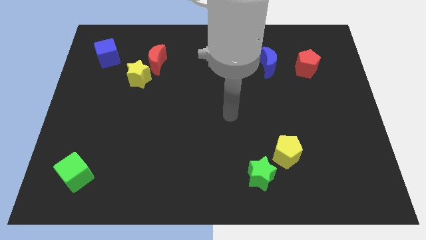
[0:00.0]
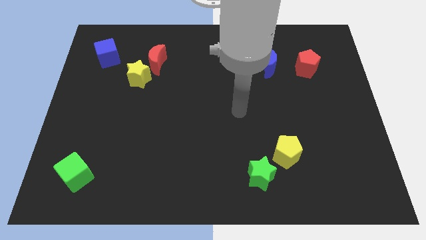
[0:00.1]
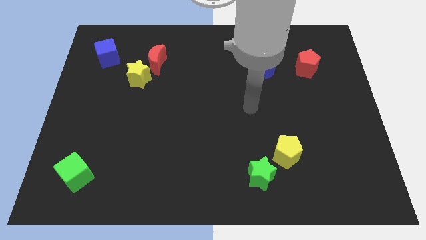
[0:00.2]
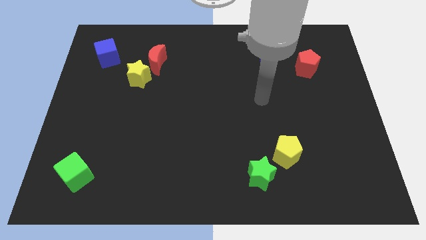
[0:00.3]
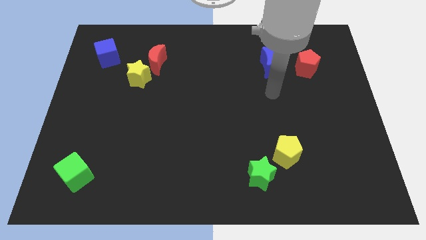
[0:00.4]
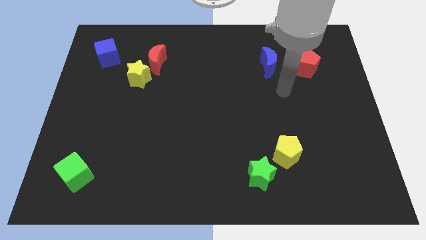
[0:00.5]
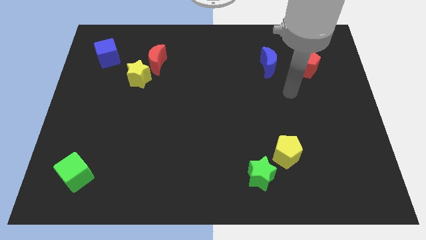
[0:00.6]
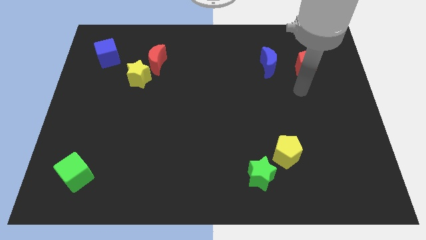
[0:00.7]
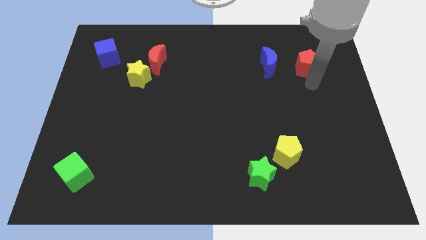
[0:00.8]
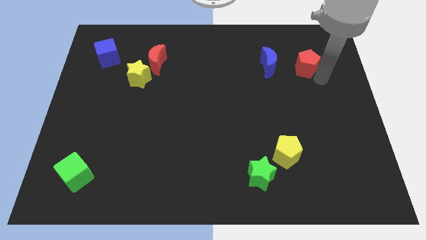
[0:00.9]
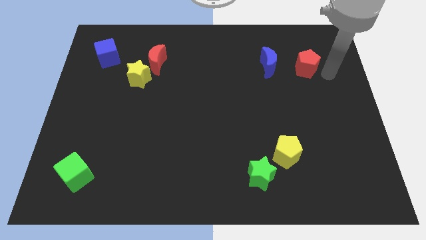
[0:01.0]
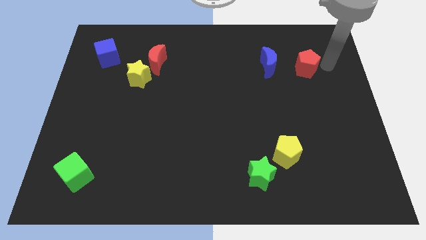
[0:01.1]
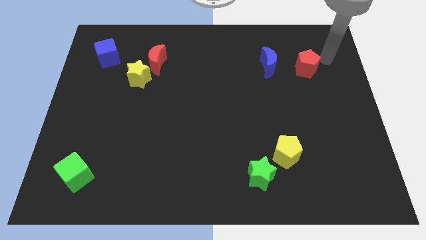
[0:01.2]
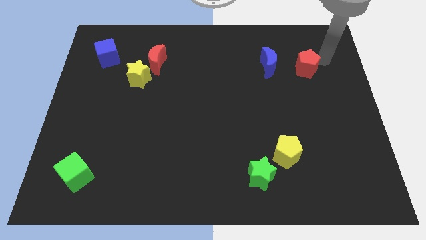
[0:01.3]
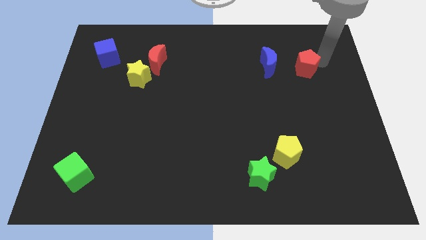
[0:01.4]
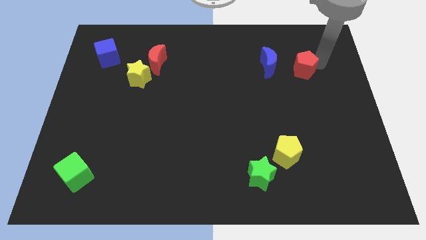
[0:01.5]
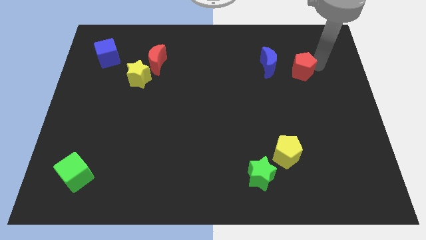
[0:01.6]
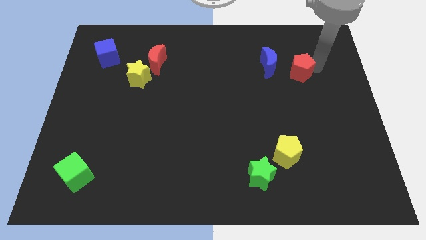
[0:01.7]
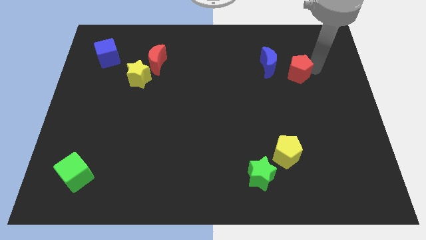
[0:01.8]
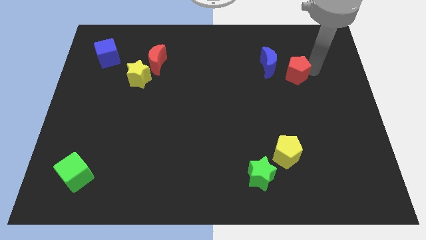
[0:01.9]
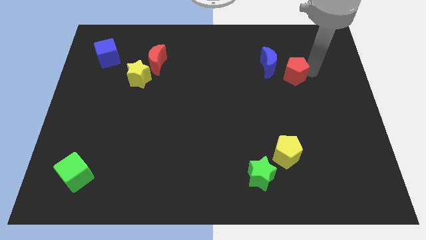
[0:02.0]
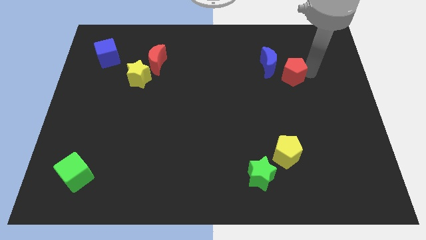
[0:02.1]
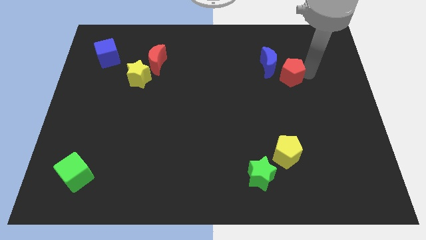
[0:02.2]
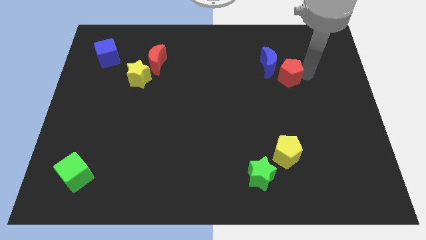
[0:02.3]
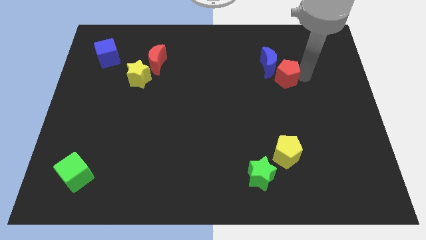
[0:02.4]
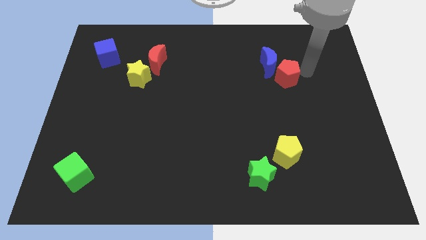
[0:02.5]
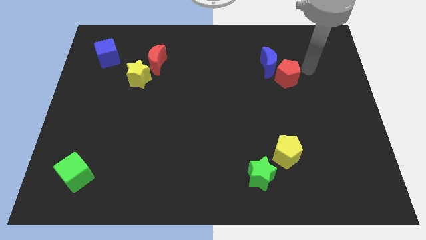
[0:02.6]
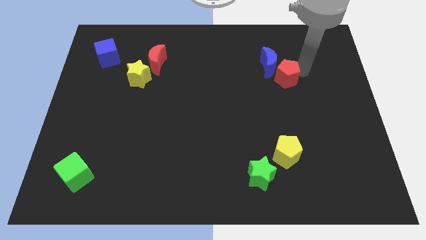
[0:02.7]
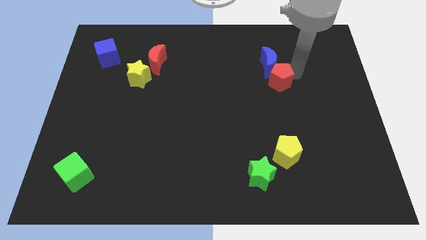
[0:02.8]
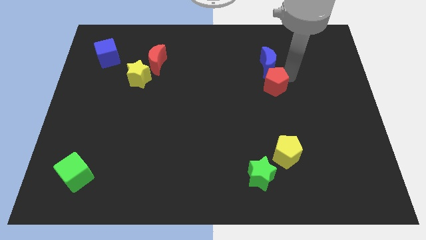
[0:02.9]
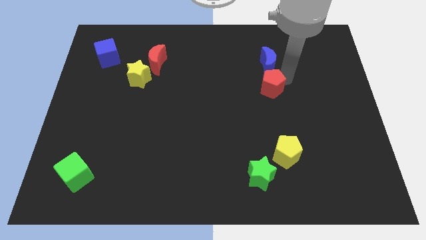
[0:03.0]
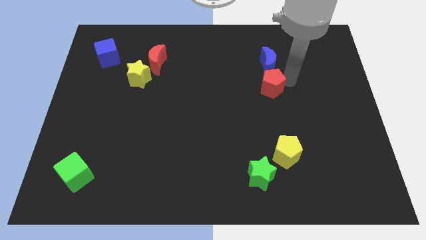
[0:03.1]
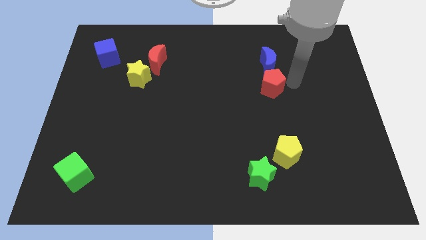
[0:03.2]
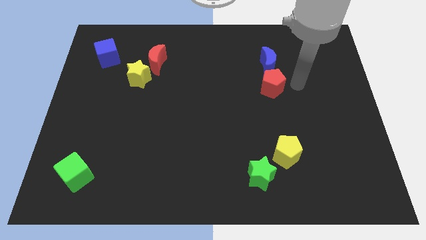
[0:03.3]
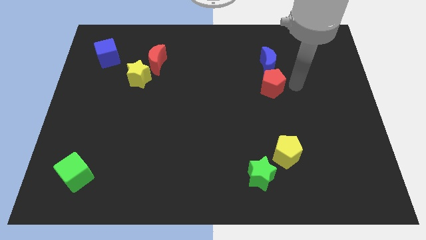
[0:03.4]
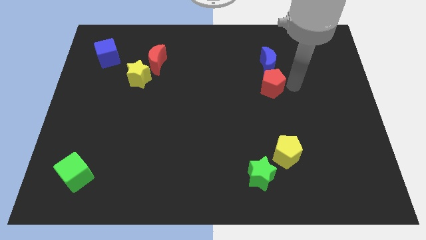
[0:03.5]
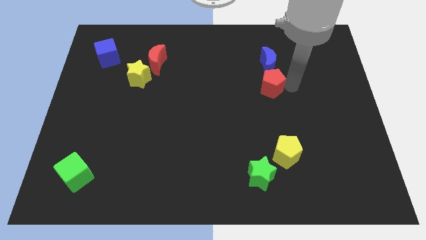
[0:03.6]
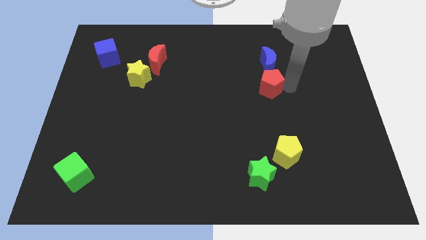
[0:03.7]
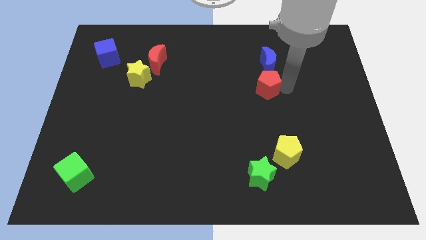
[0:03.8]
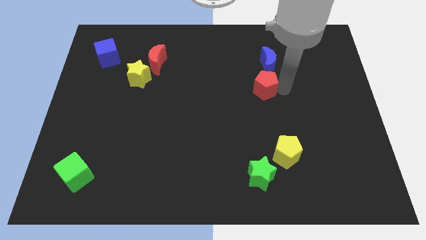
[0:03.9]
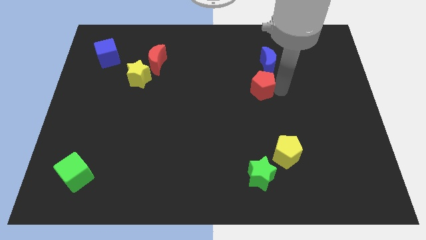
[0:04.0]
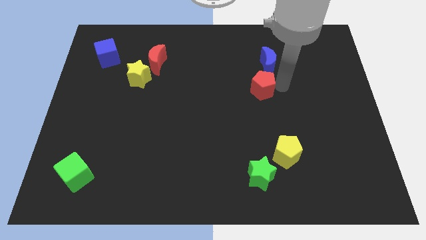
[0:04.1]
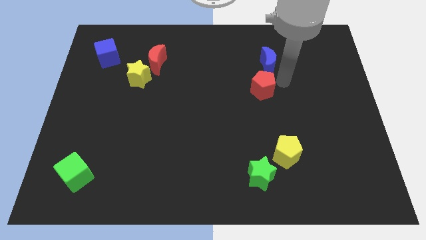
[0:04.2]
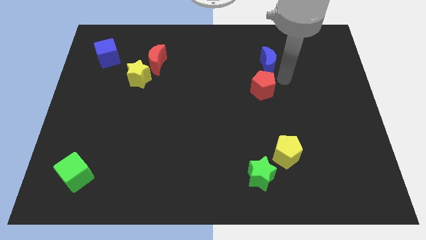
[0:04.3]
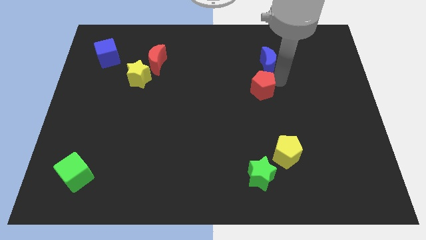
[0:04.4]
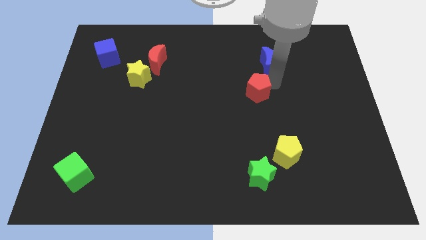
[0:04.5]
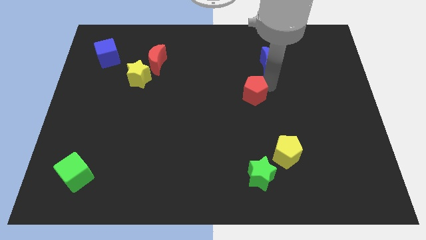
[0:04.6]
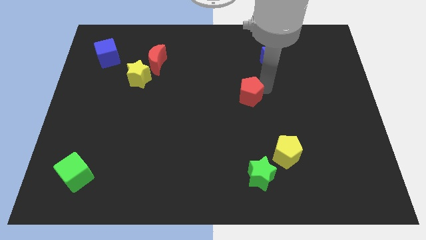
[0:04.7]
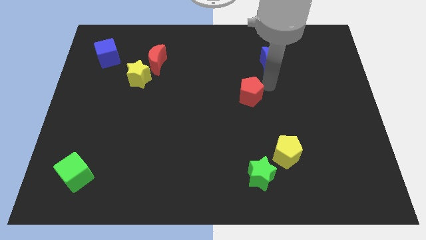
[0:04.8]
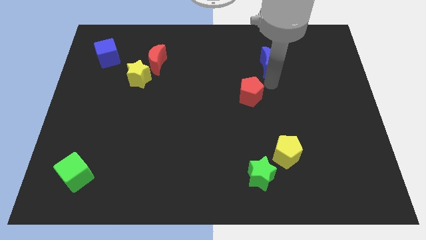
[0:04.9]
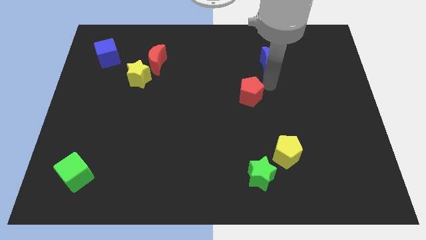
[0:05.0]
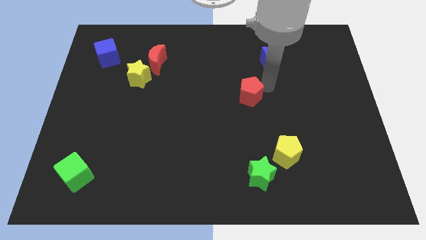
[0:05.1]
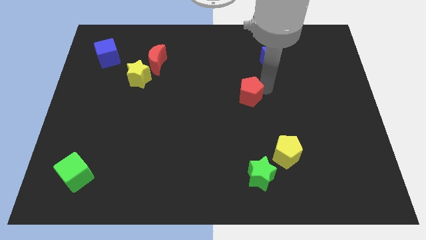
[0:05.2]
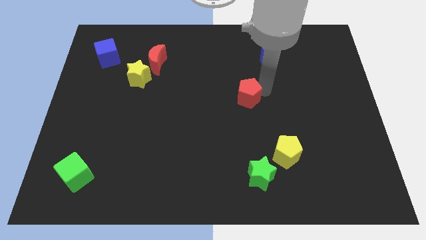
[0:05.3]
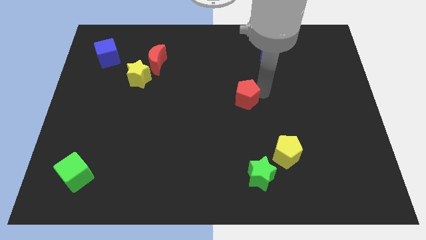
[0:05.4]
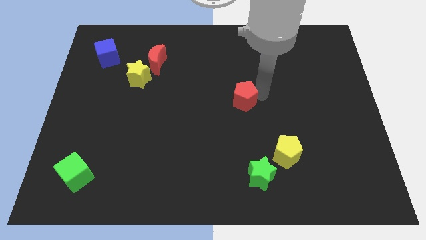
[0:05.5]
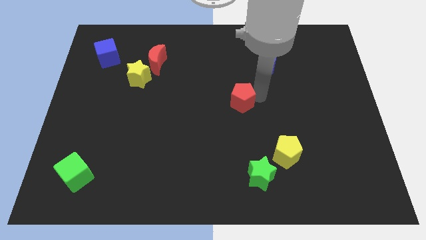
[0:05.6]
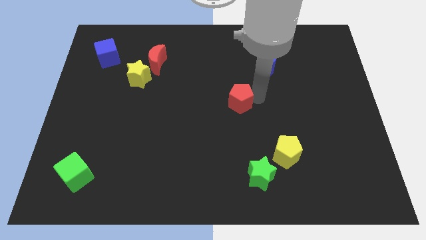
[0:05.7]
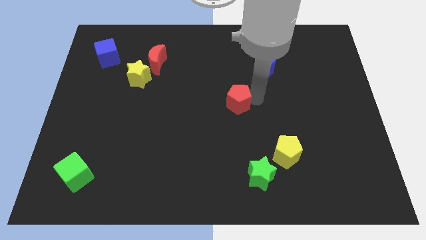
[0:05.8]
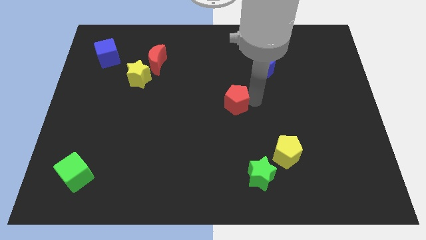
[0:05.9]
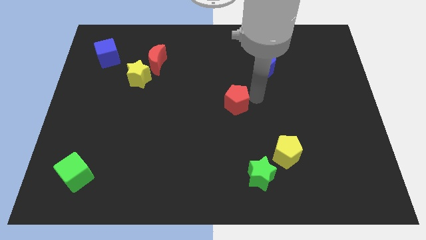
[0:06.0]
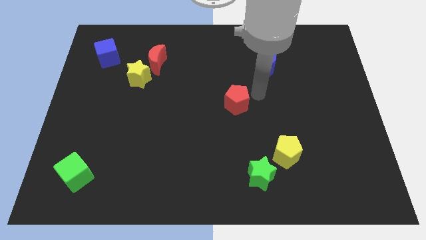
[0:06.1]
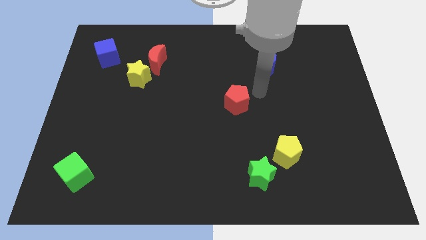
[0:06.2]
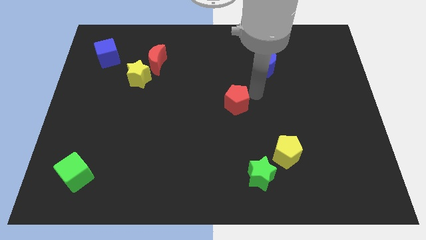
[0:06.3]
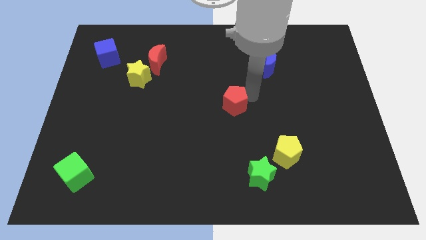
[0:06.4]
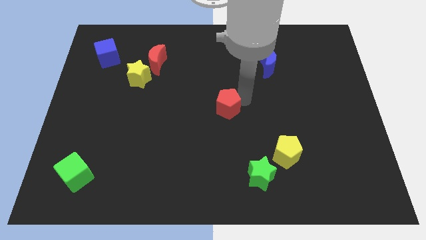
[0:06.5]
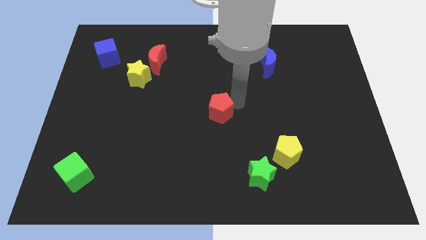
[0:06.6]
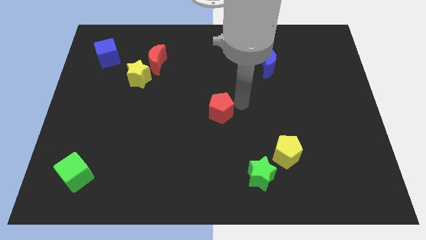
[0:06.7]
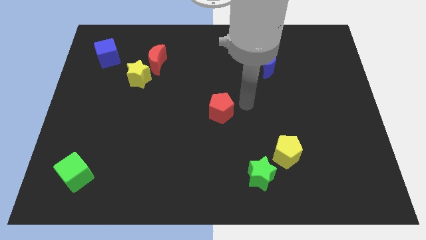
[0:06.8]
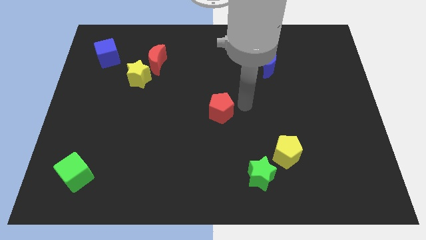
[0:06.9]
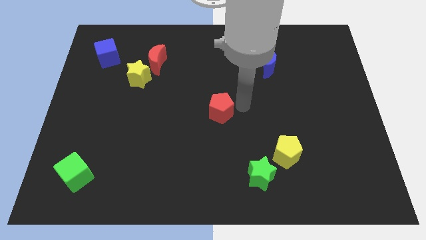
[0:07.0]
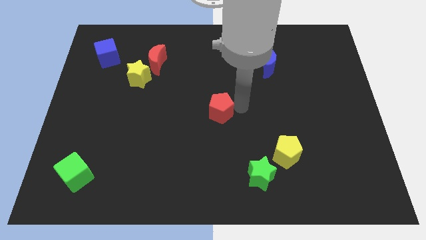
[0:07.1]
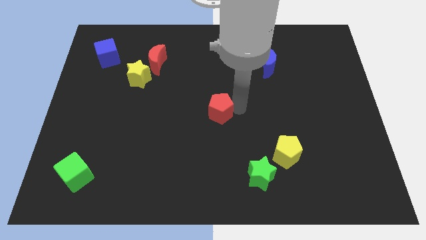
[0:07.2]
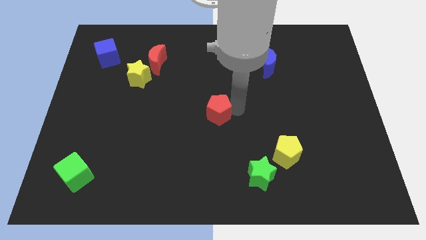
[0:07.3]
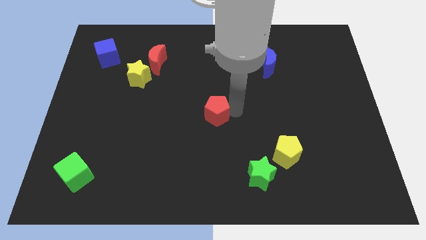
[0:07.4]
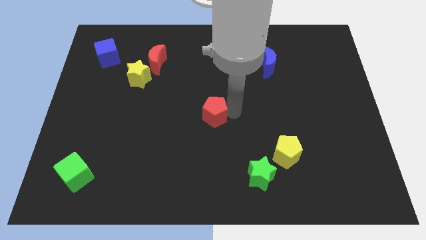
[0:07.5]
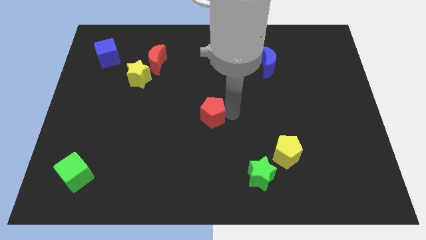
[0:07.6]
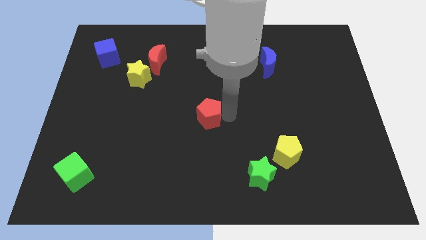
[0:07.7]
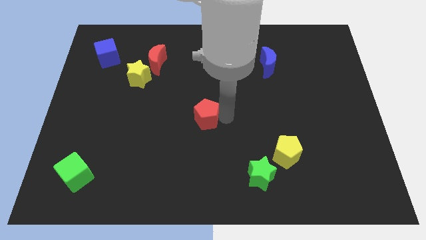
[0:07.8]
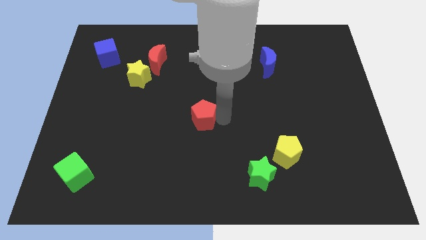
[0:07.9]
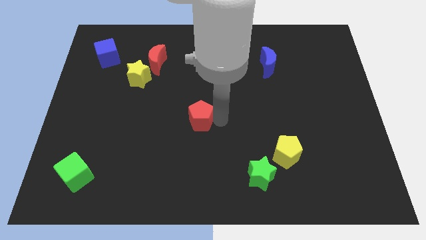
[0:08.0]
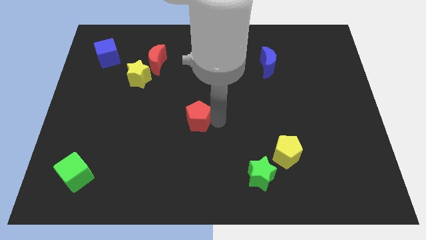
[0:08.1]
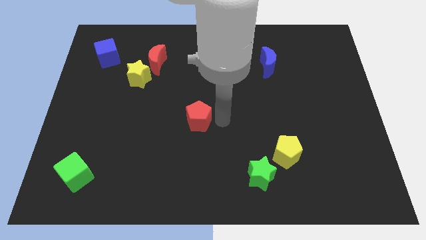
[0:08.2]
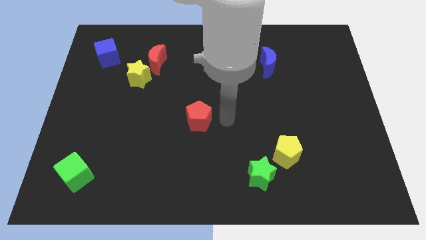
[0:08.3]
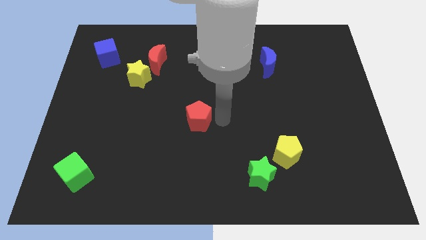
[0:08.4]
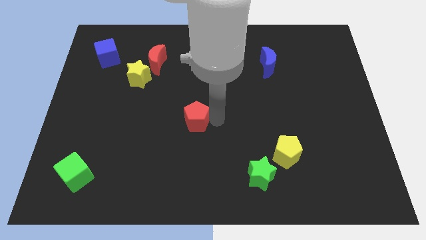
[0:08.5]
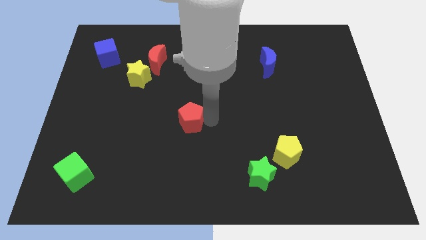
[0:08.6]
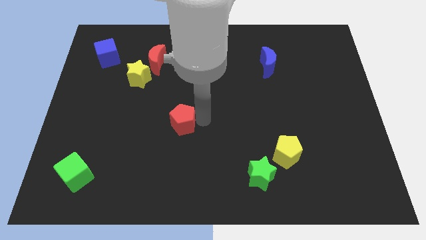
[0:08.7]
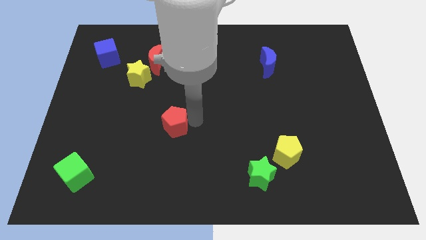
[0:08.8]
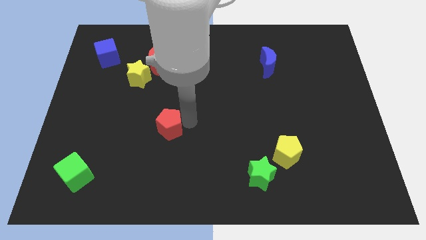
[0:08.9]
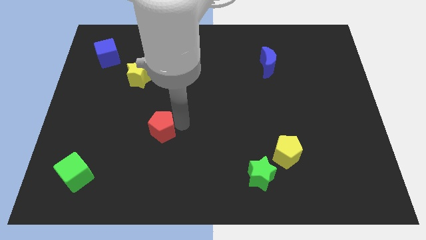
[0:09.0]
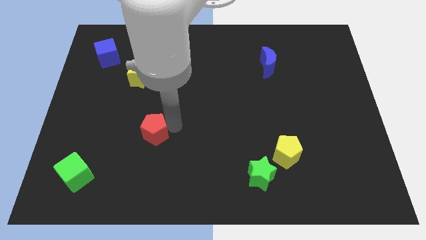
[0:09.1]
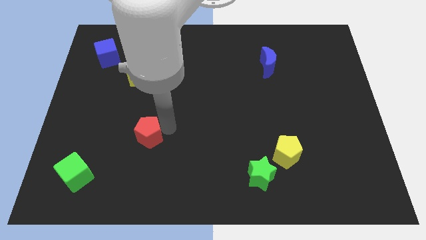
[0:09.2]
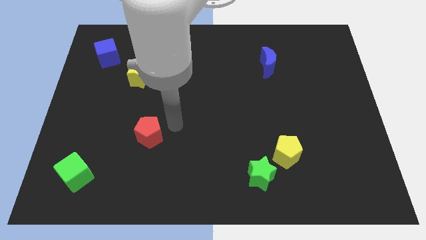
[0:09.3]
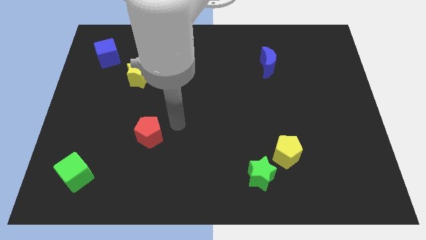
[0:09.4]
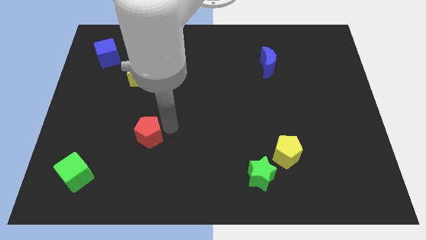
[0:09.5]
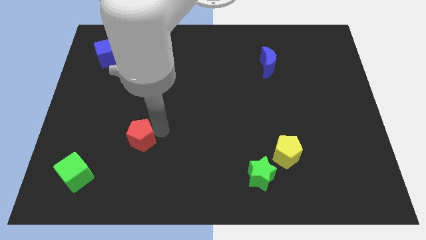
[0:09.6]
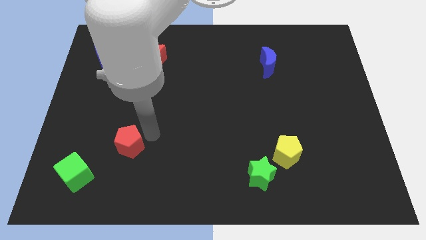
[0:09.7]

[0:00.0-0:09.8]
put the red pentagon to the top right side of the green cube
